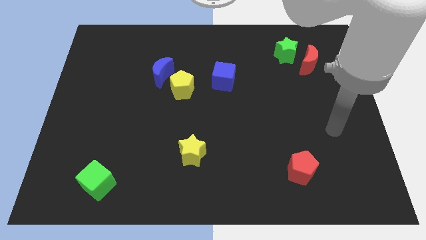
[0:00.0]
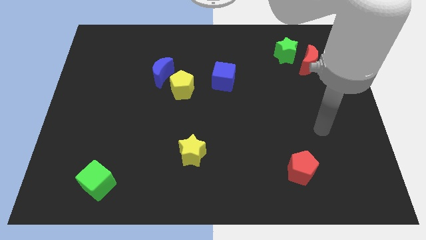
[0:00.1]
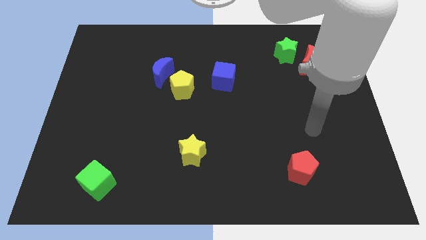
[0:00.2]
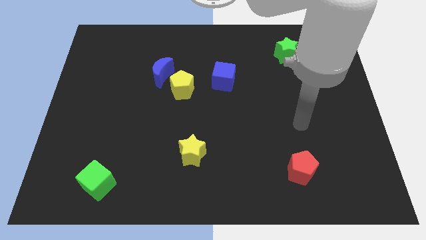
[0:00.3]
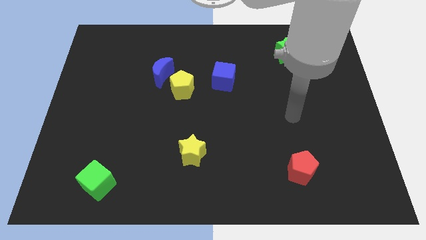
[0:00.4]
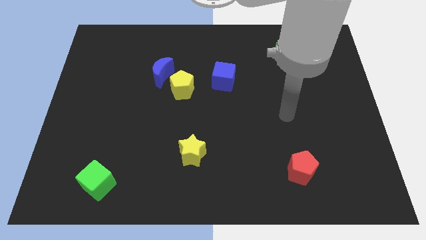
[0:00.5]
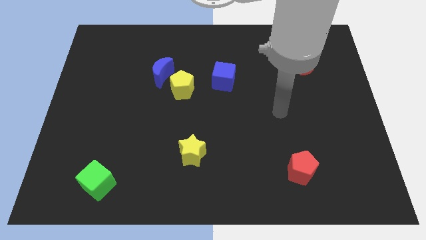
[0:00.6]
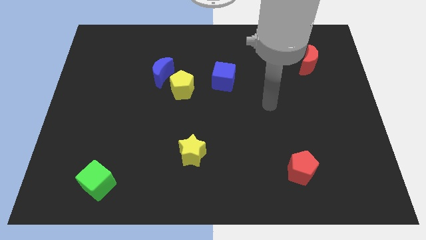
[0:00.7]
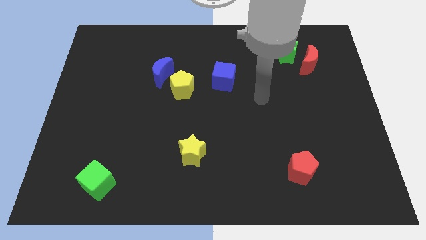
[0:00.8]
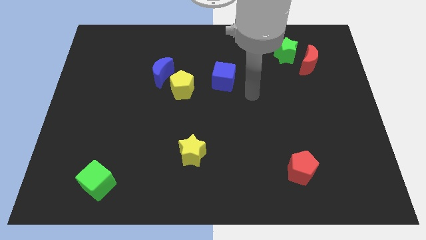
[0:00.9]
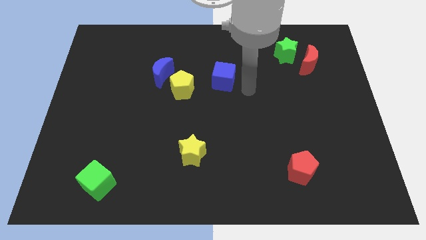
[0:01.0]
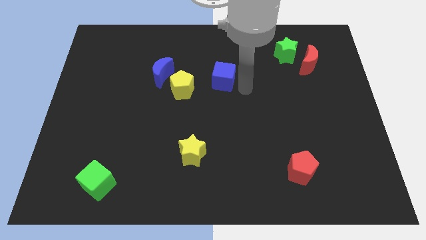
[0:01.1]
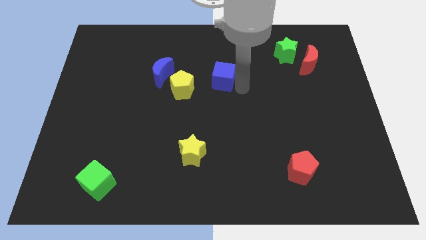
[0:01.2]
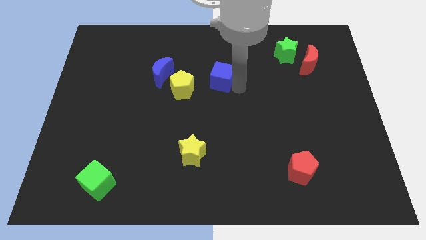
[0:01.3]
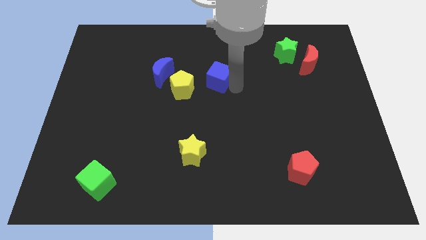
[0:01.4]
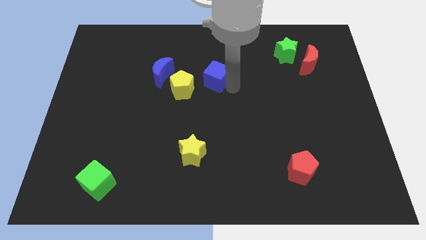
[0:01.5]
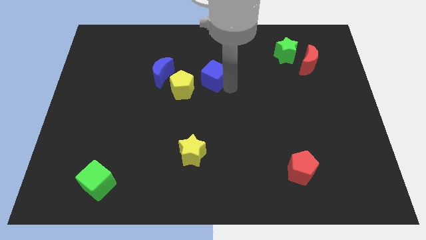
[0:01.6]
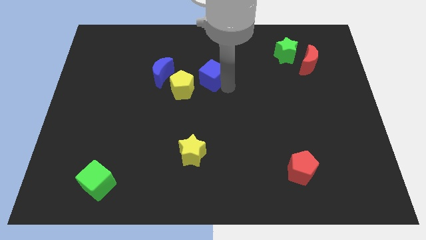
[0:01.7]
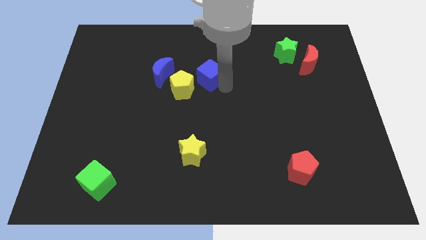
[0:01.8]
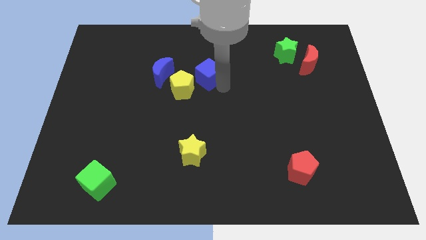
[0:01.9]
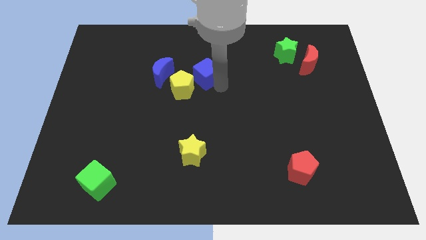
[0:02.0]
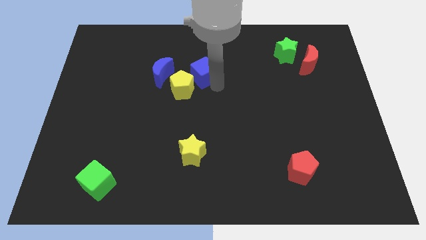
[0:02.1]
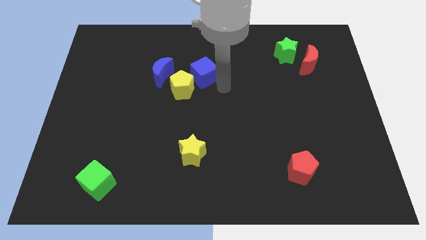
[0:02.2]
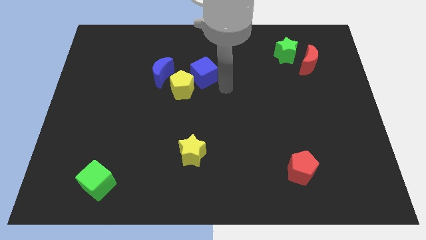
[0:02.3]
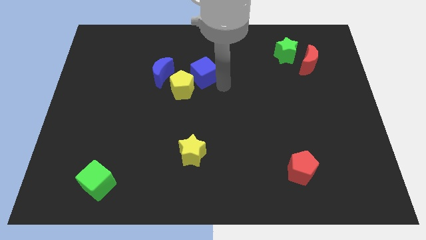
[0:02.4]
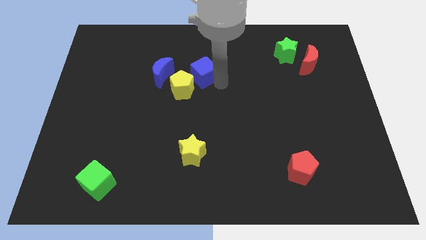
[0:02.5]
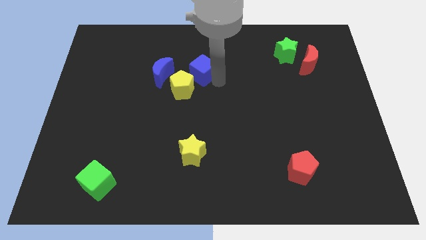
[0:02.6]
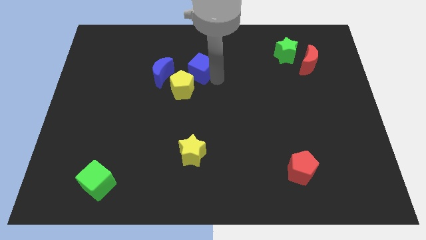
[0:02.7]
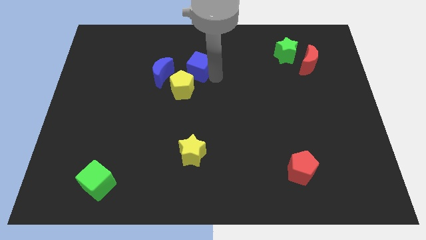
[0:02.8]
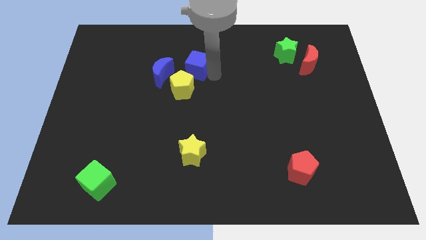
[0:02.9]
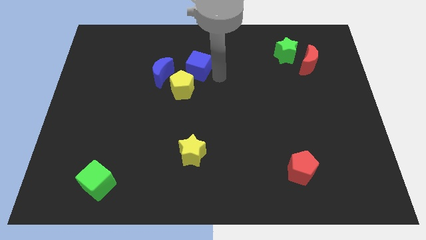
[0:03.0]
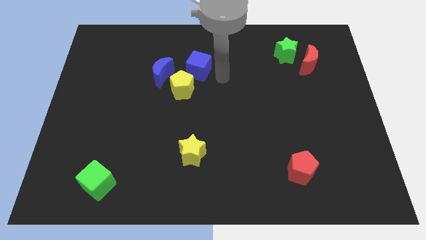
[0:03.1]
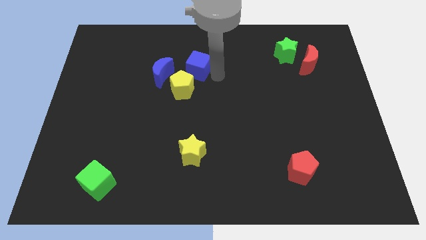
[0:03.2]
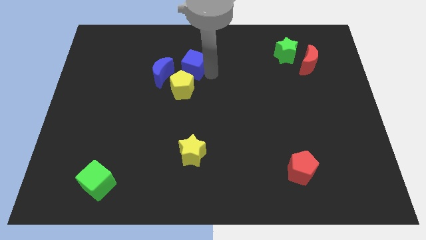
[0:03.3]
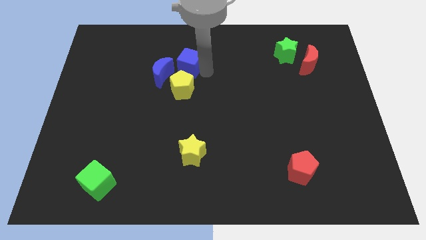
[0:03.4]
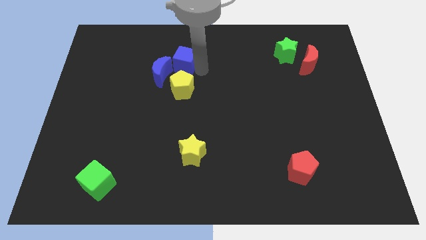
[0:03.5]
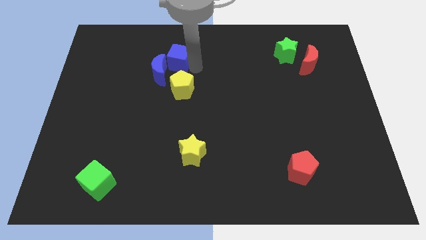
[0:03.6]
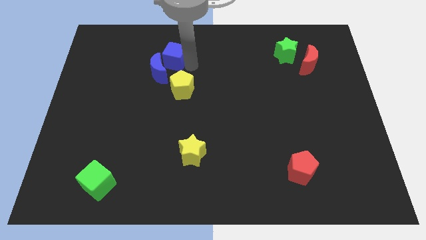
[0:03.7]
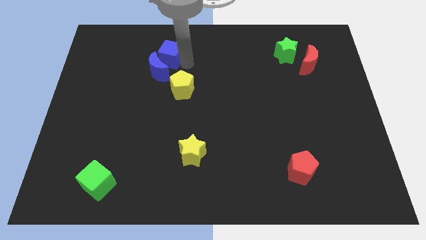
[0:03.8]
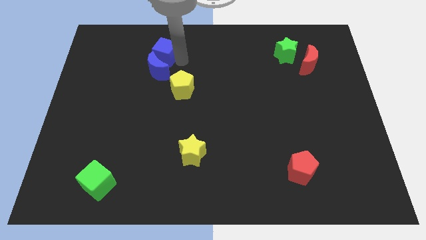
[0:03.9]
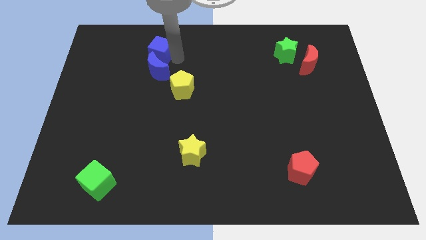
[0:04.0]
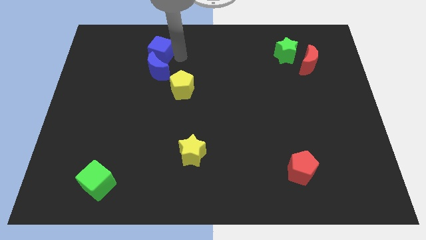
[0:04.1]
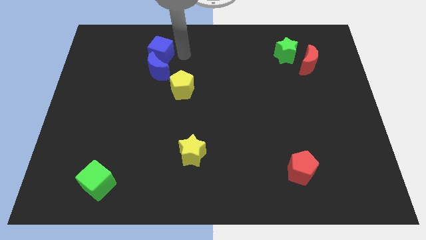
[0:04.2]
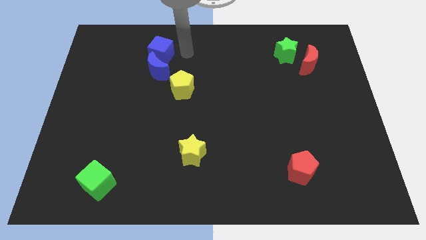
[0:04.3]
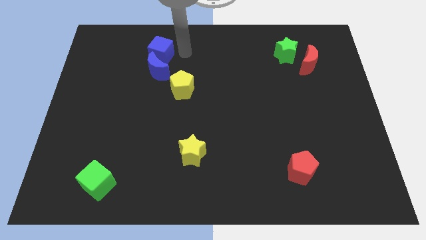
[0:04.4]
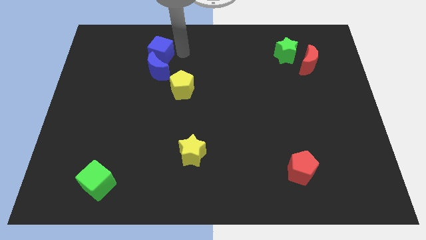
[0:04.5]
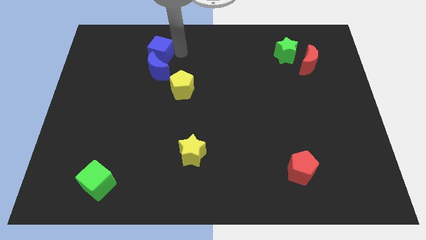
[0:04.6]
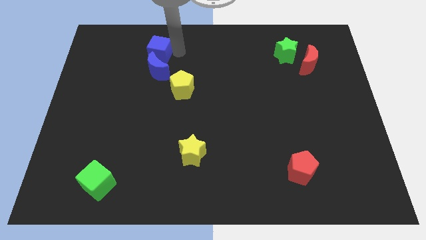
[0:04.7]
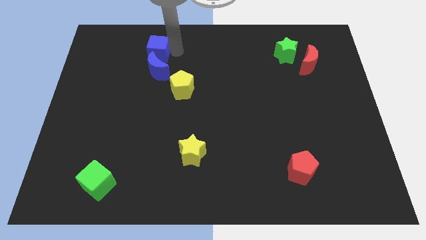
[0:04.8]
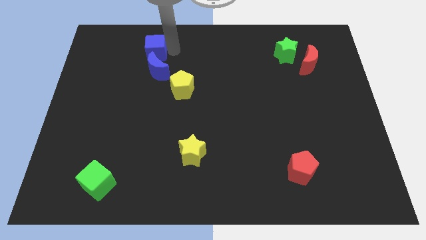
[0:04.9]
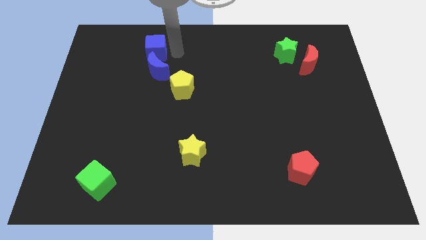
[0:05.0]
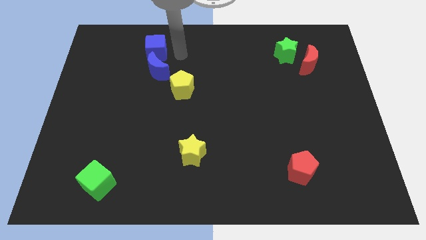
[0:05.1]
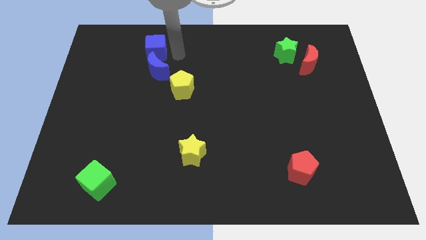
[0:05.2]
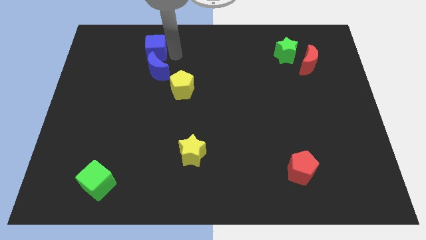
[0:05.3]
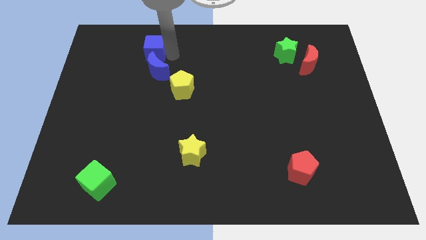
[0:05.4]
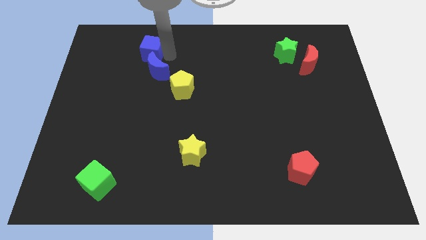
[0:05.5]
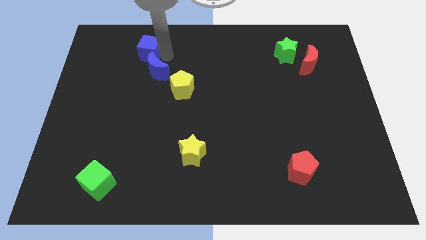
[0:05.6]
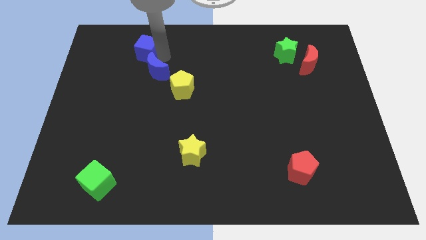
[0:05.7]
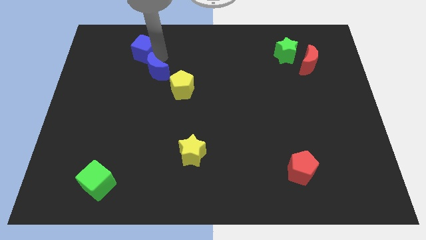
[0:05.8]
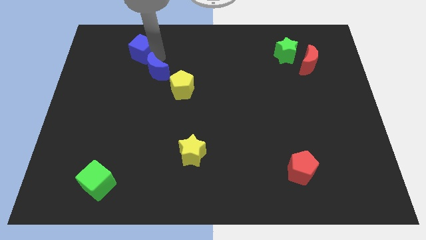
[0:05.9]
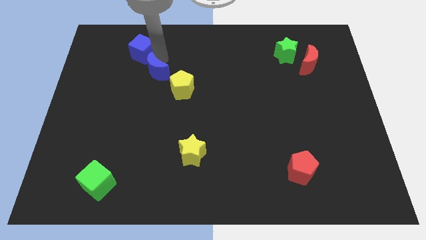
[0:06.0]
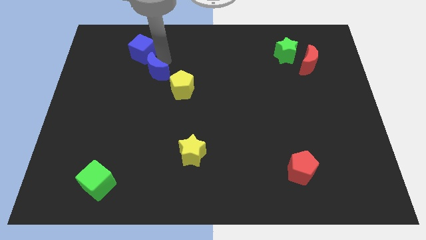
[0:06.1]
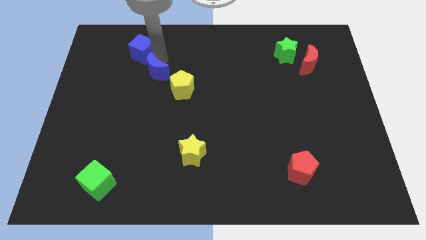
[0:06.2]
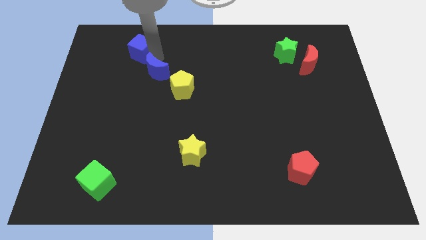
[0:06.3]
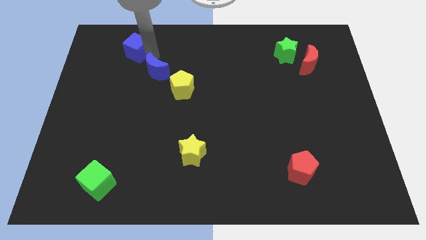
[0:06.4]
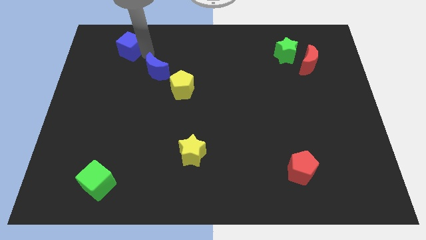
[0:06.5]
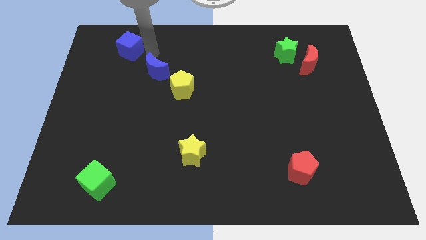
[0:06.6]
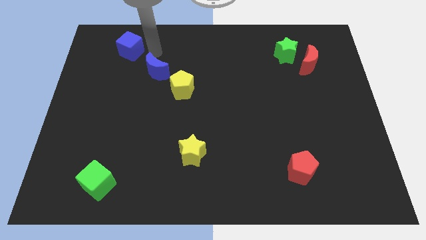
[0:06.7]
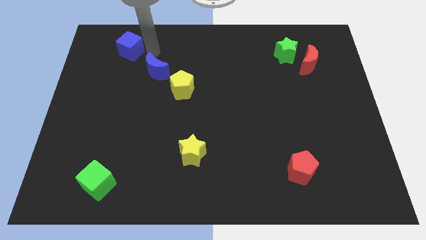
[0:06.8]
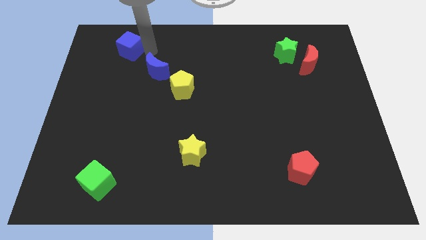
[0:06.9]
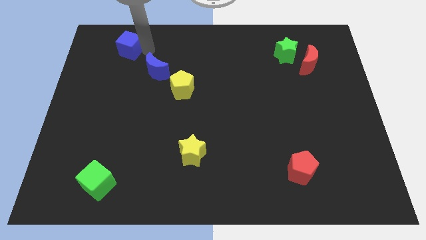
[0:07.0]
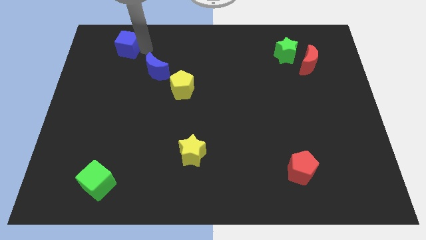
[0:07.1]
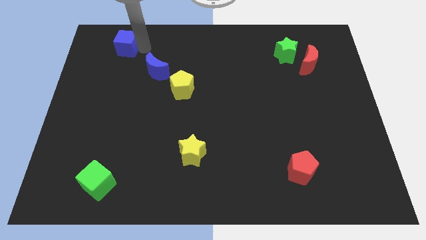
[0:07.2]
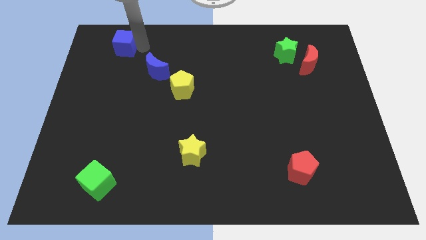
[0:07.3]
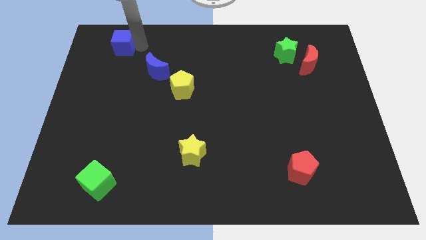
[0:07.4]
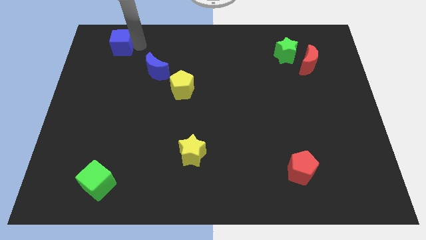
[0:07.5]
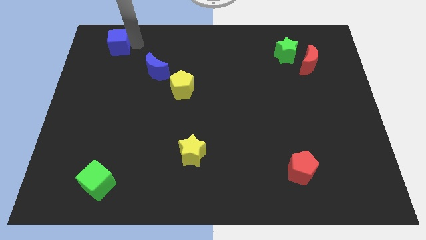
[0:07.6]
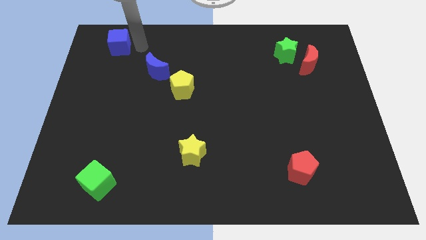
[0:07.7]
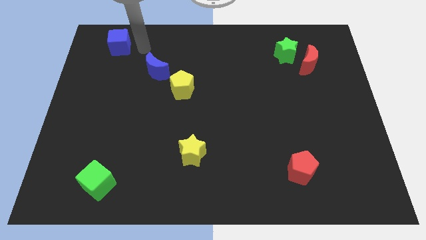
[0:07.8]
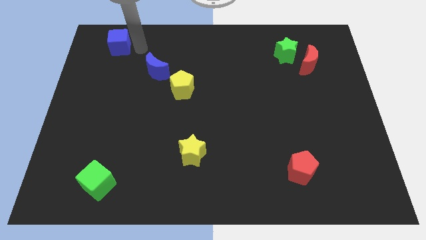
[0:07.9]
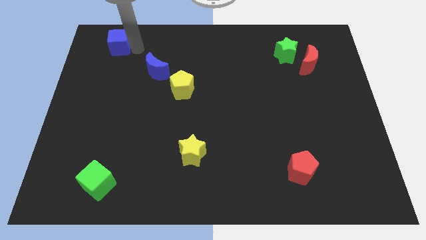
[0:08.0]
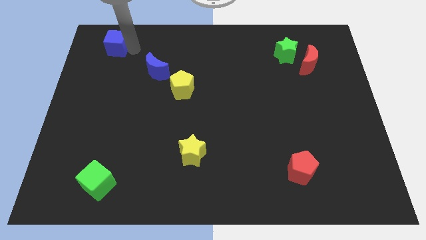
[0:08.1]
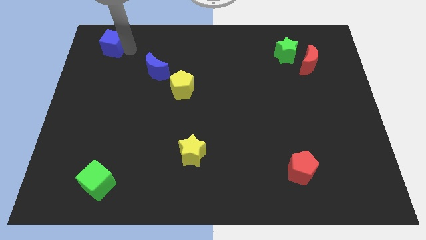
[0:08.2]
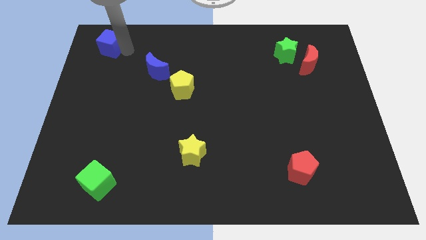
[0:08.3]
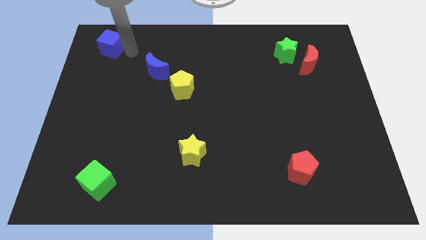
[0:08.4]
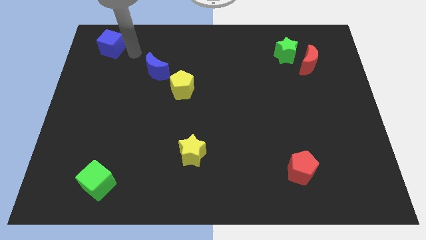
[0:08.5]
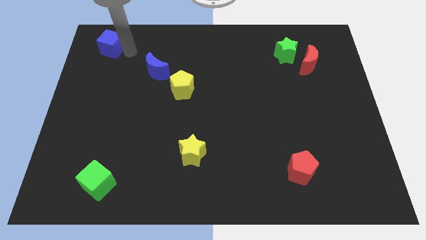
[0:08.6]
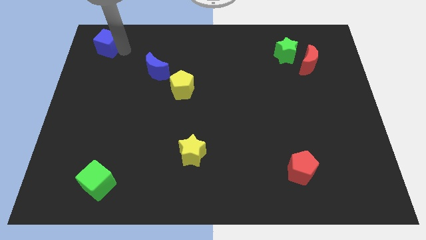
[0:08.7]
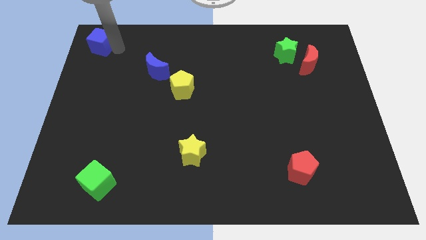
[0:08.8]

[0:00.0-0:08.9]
slide the blue cube to the top left of the board
